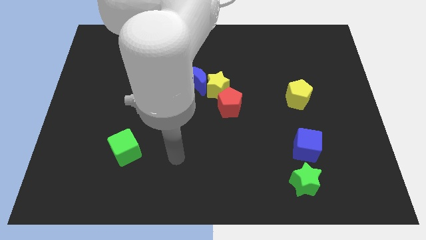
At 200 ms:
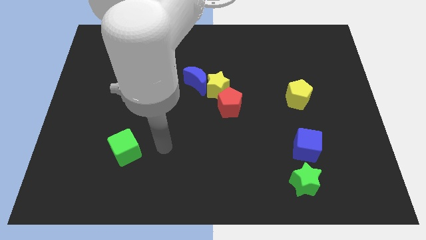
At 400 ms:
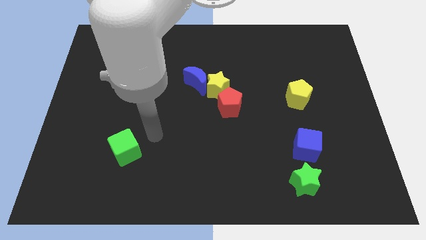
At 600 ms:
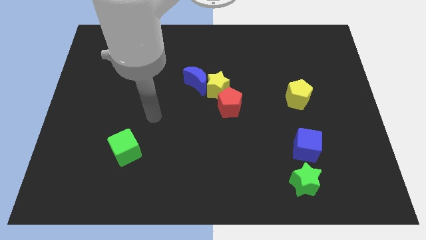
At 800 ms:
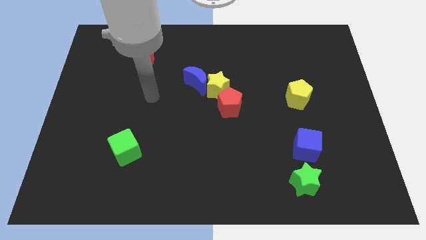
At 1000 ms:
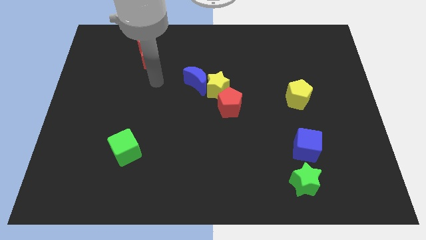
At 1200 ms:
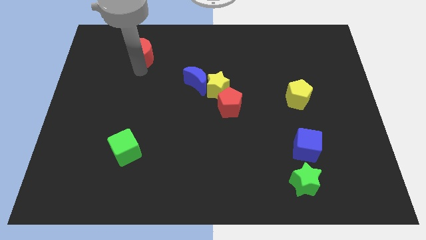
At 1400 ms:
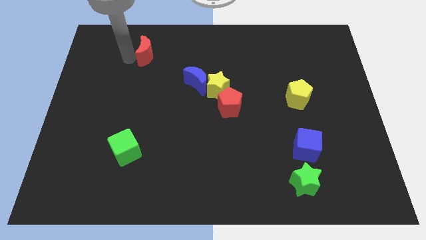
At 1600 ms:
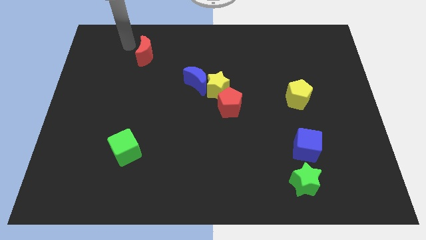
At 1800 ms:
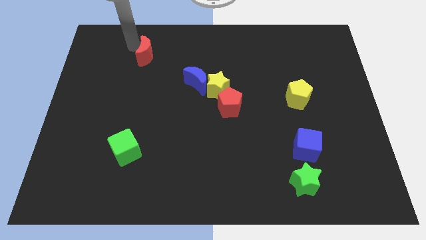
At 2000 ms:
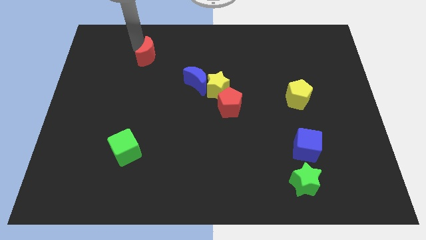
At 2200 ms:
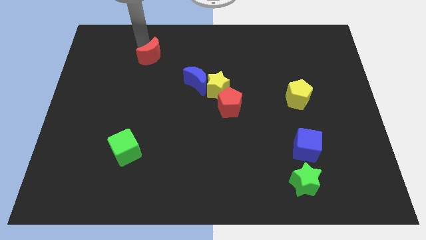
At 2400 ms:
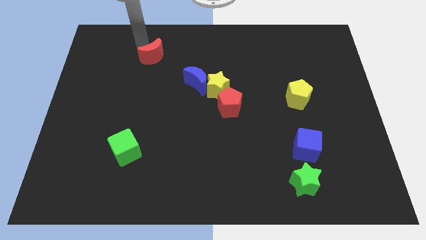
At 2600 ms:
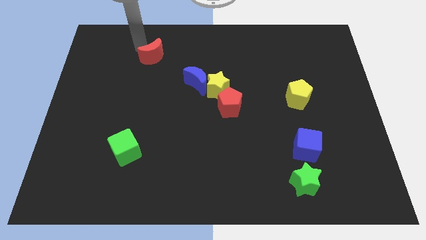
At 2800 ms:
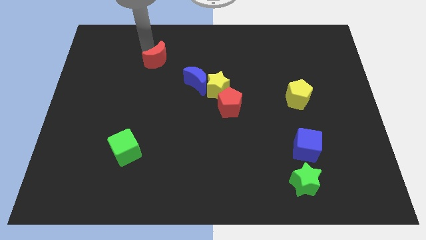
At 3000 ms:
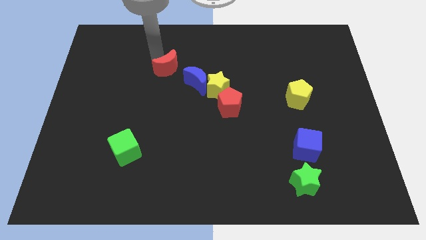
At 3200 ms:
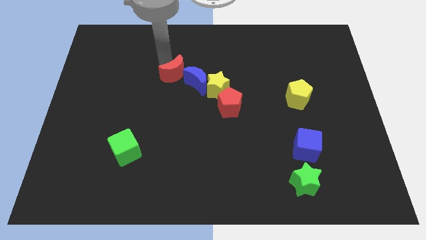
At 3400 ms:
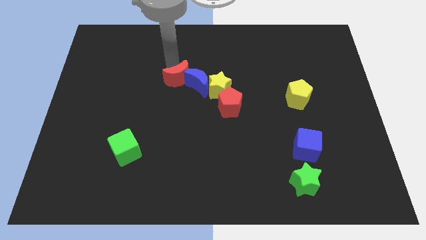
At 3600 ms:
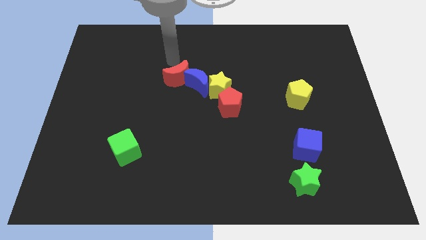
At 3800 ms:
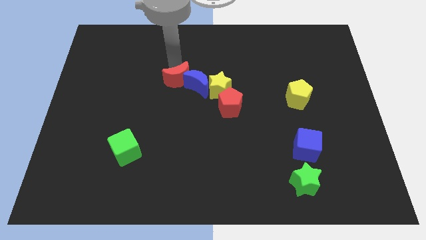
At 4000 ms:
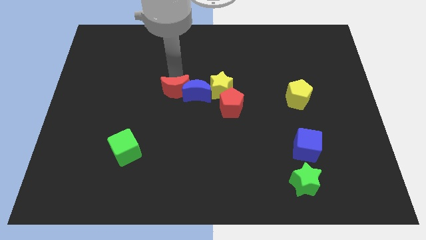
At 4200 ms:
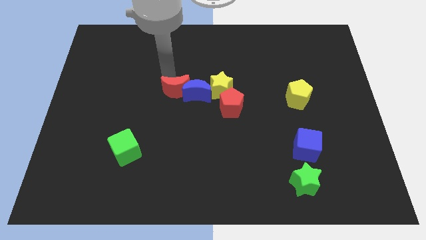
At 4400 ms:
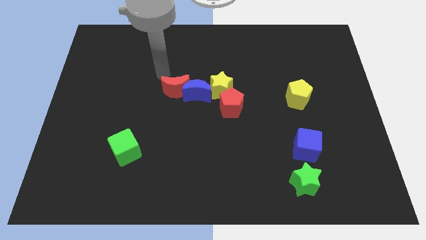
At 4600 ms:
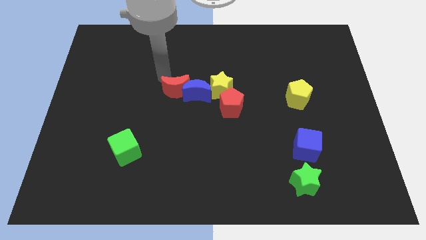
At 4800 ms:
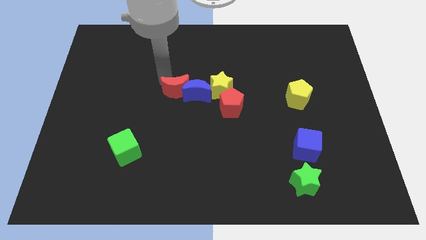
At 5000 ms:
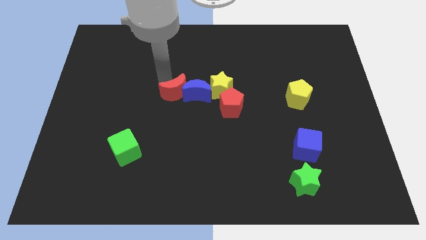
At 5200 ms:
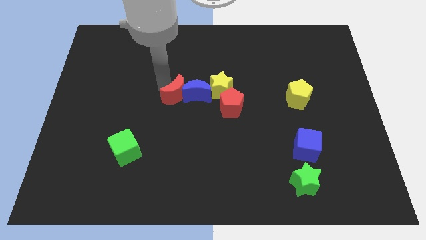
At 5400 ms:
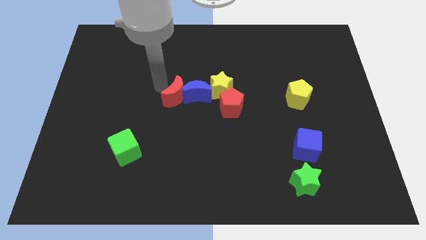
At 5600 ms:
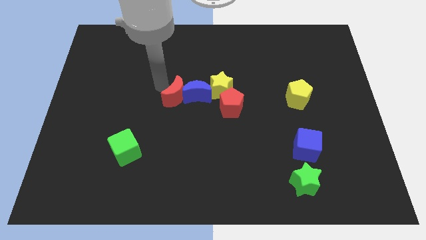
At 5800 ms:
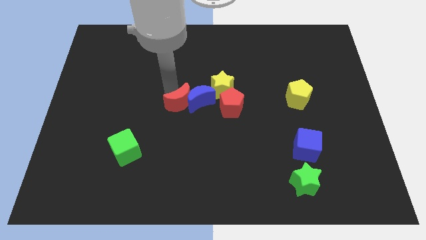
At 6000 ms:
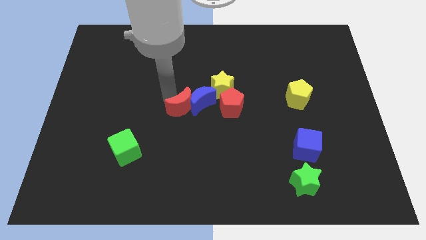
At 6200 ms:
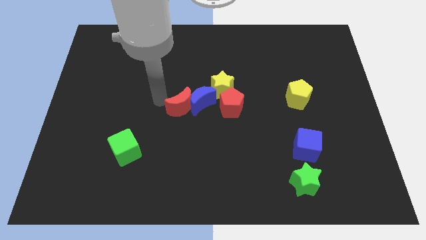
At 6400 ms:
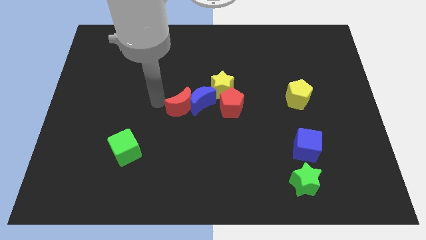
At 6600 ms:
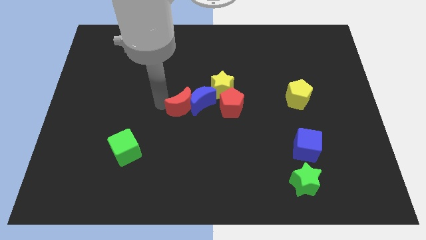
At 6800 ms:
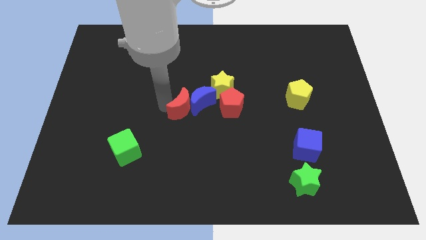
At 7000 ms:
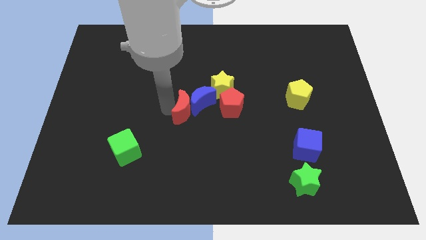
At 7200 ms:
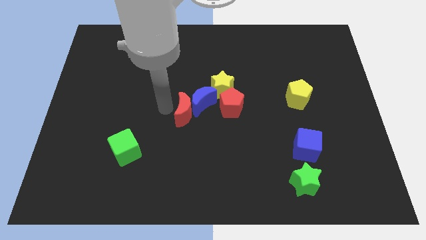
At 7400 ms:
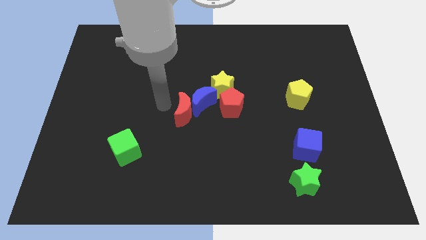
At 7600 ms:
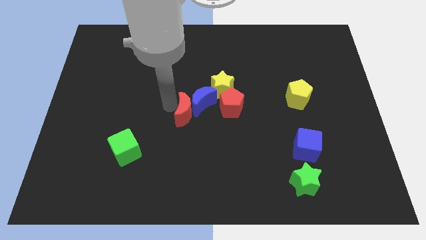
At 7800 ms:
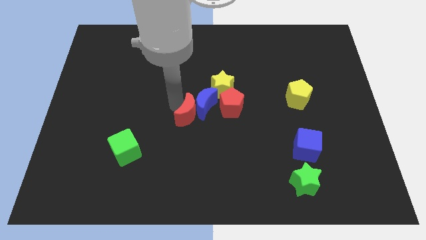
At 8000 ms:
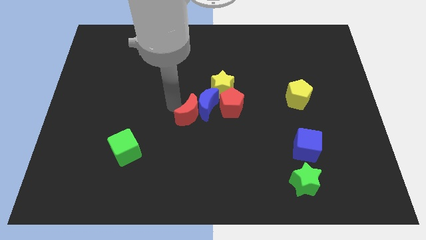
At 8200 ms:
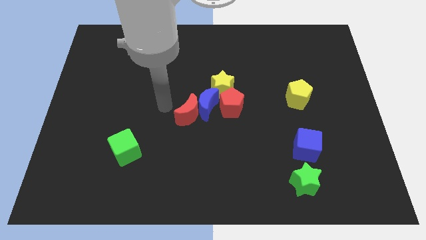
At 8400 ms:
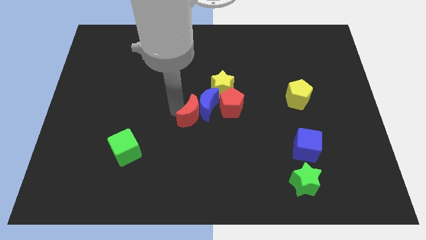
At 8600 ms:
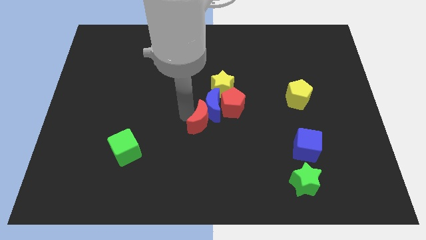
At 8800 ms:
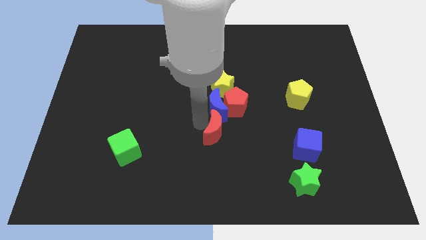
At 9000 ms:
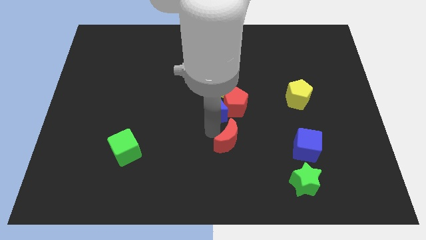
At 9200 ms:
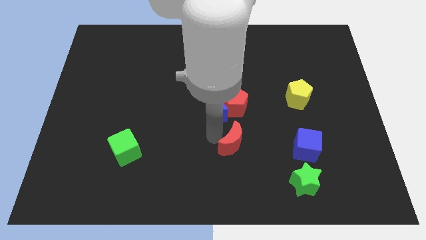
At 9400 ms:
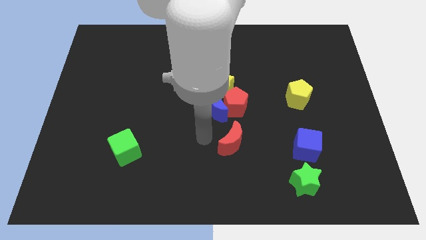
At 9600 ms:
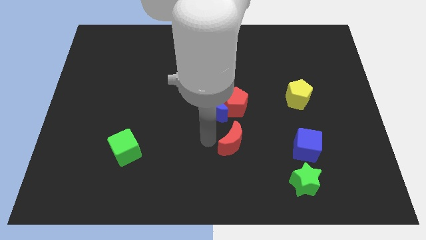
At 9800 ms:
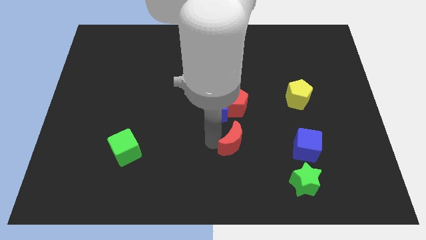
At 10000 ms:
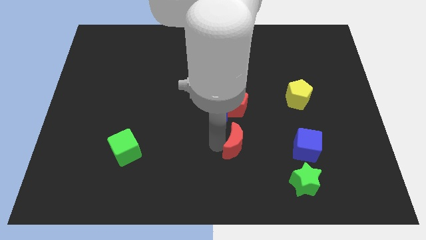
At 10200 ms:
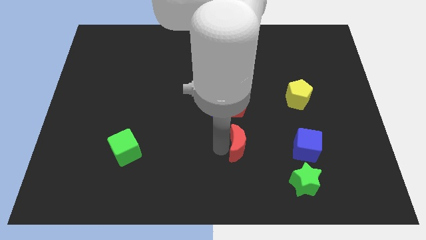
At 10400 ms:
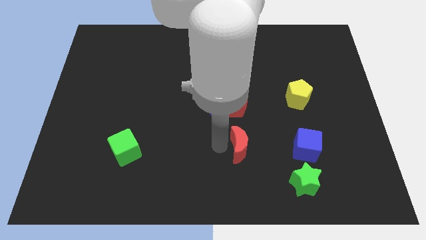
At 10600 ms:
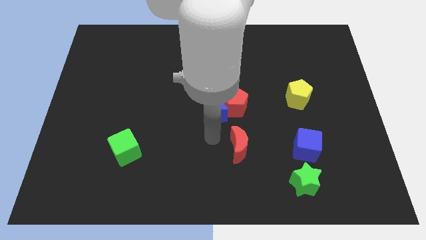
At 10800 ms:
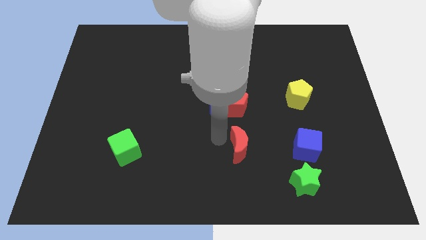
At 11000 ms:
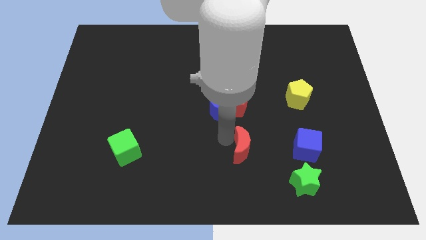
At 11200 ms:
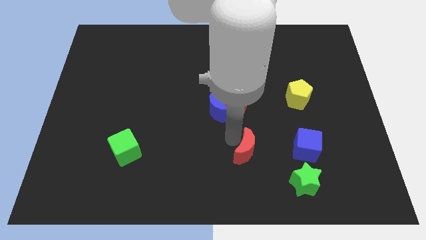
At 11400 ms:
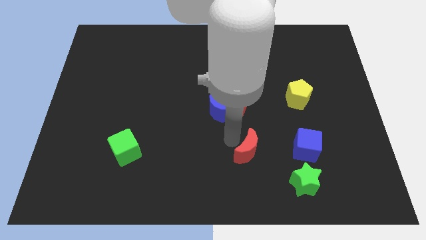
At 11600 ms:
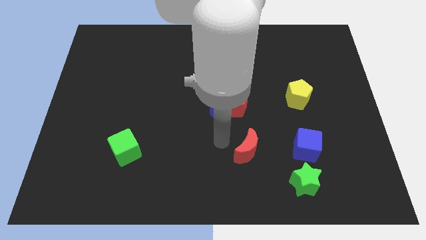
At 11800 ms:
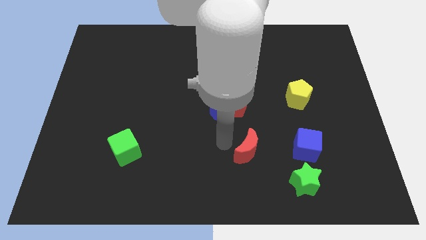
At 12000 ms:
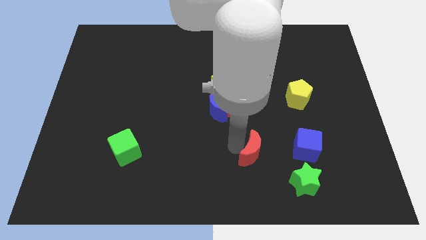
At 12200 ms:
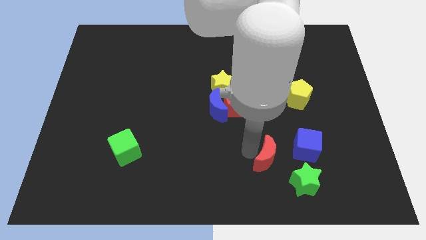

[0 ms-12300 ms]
move the red moon diagonally down and to the left of the blue cube

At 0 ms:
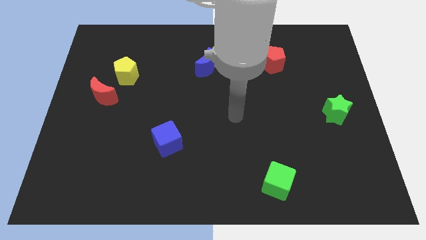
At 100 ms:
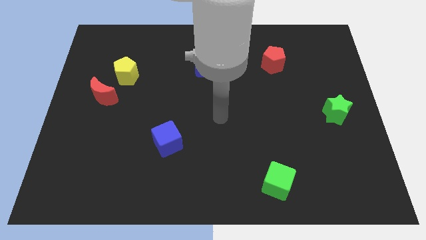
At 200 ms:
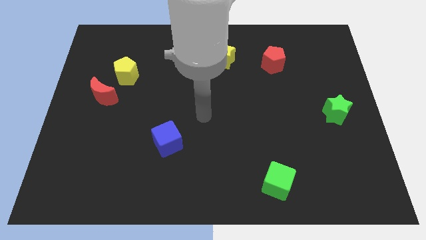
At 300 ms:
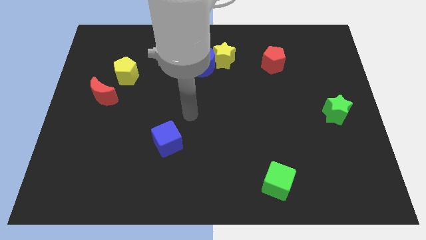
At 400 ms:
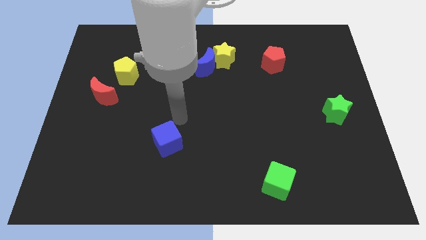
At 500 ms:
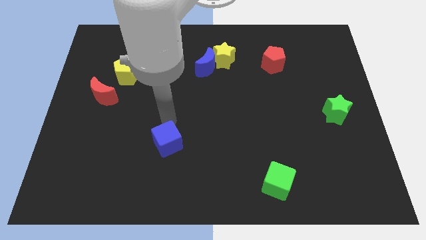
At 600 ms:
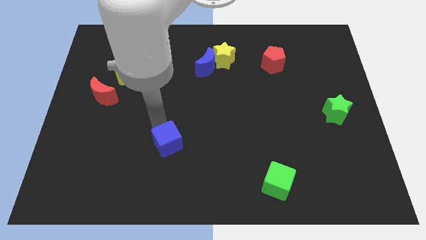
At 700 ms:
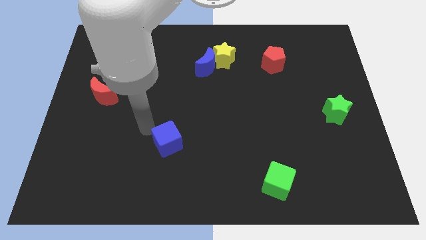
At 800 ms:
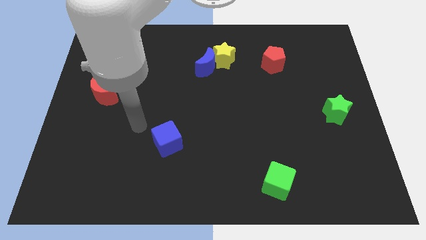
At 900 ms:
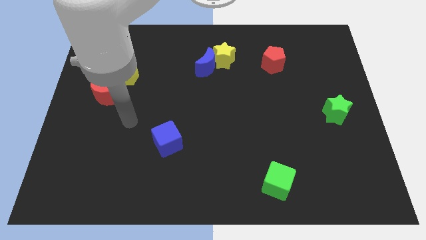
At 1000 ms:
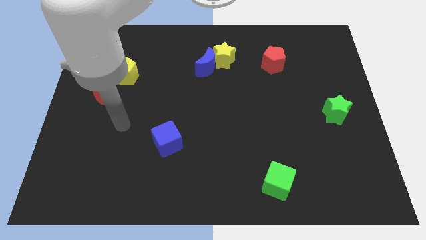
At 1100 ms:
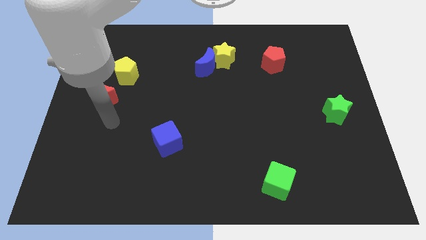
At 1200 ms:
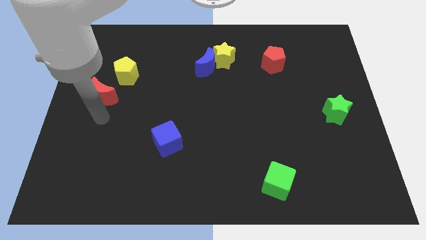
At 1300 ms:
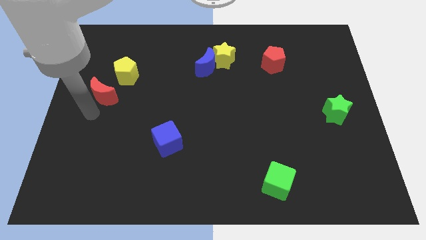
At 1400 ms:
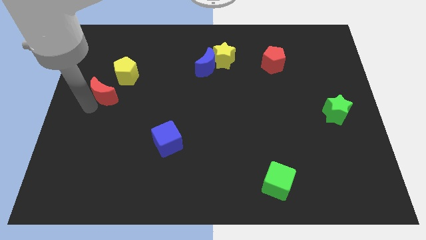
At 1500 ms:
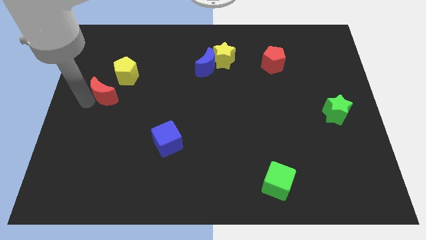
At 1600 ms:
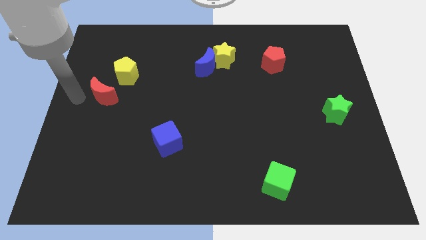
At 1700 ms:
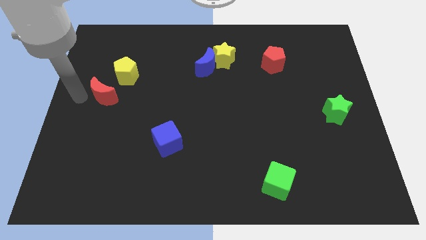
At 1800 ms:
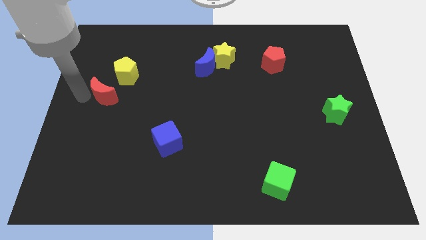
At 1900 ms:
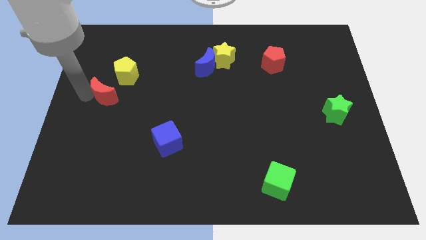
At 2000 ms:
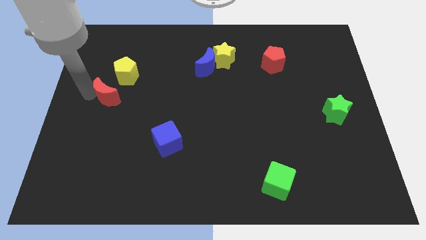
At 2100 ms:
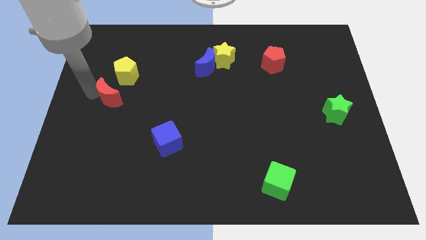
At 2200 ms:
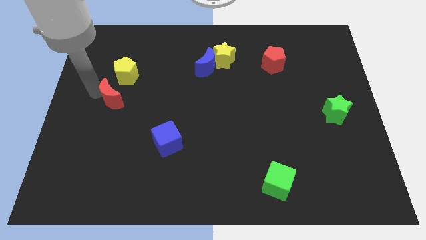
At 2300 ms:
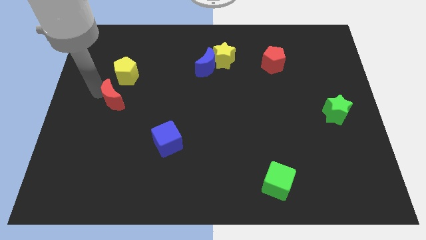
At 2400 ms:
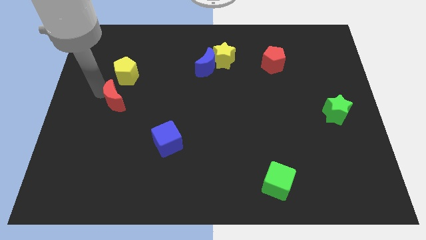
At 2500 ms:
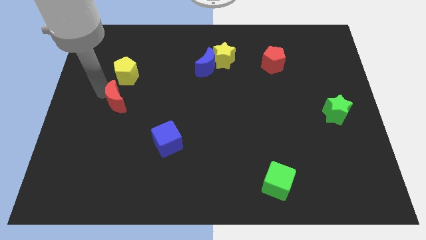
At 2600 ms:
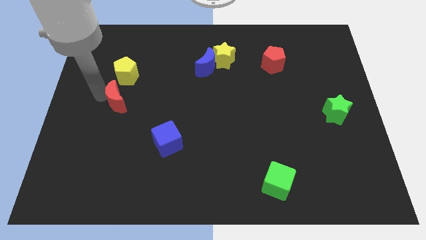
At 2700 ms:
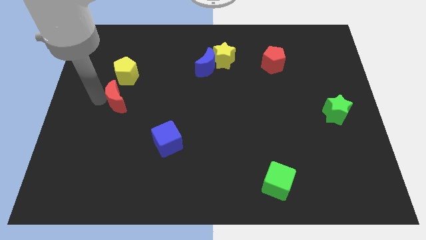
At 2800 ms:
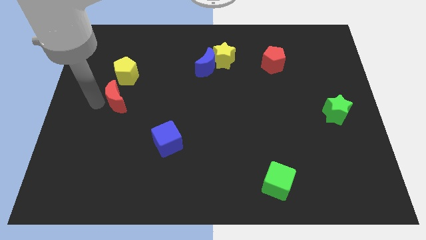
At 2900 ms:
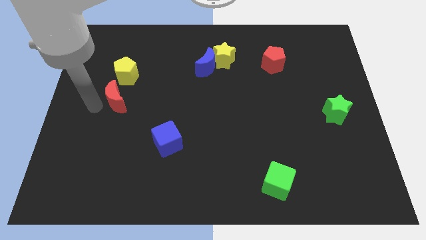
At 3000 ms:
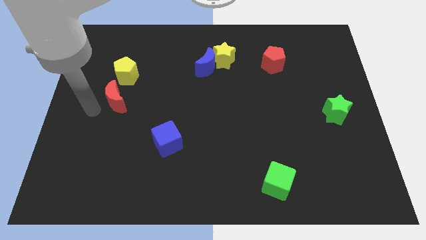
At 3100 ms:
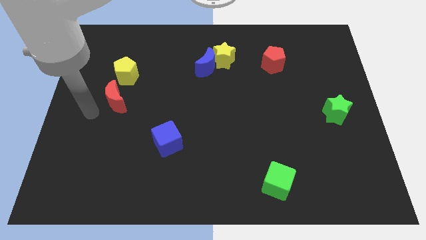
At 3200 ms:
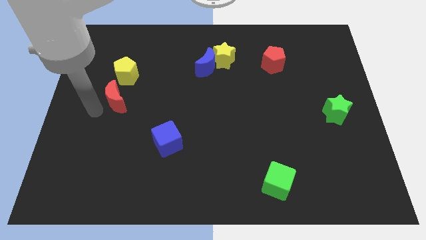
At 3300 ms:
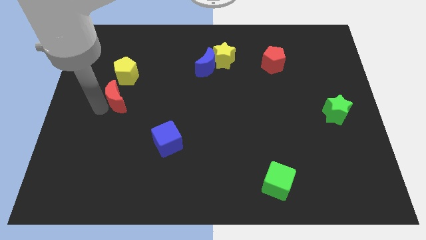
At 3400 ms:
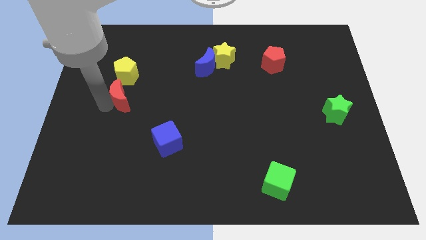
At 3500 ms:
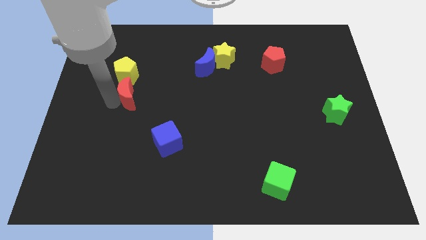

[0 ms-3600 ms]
put the red moon diagonally down and to the right of the yellow pentagon
